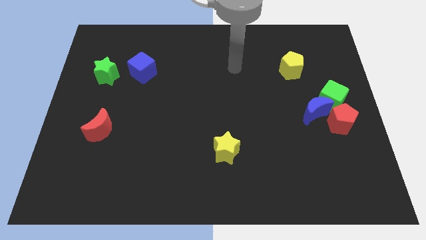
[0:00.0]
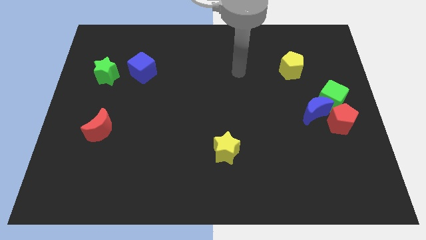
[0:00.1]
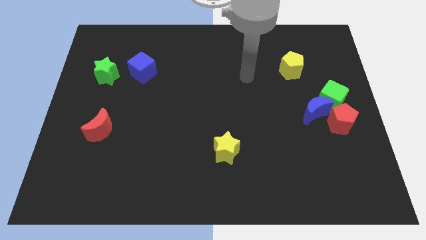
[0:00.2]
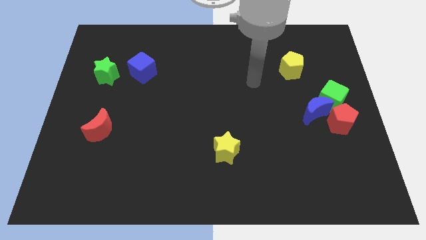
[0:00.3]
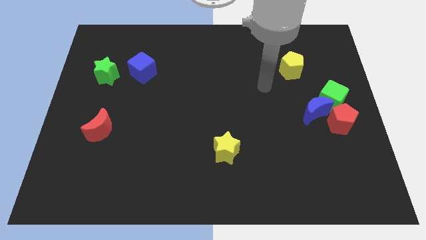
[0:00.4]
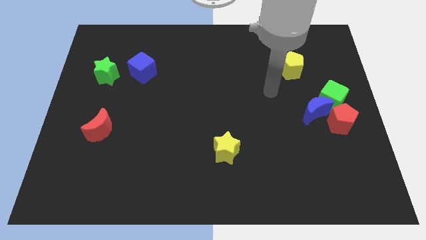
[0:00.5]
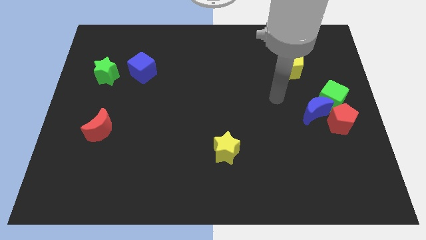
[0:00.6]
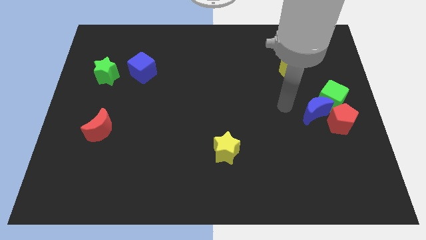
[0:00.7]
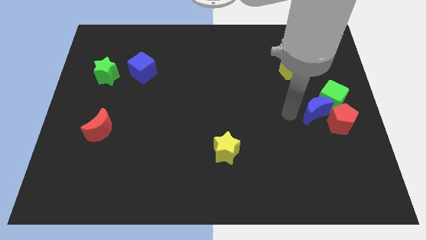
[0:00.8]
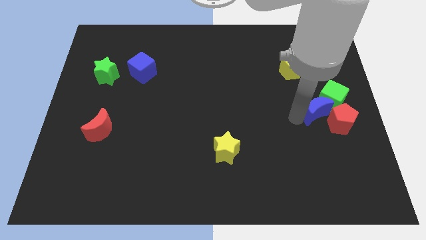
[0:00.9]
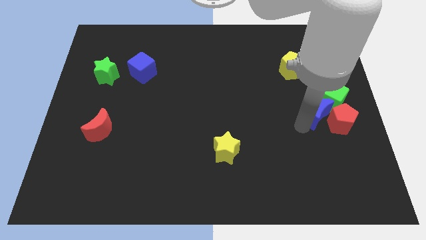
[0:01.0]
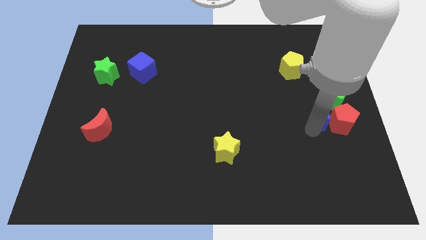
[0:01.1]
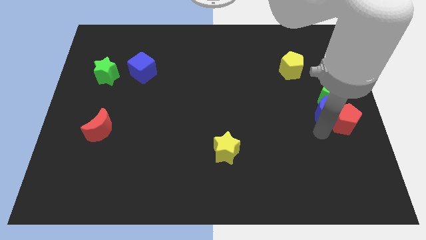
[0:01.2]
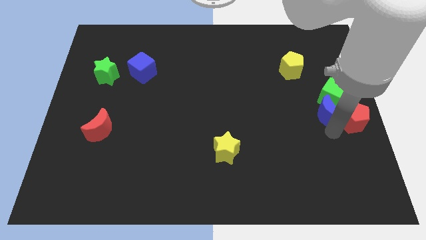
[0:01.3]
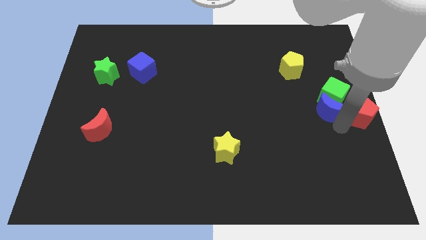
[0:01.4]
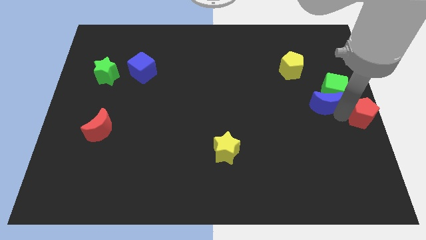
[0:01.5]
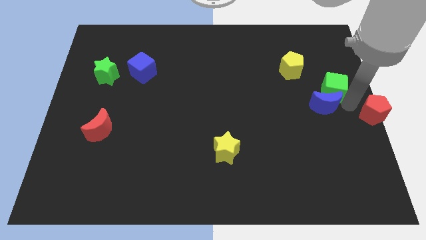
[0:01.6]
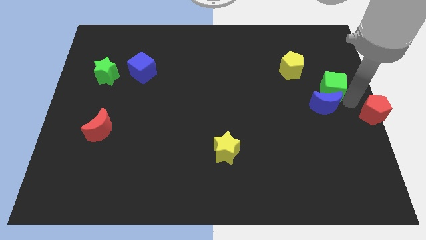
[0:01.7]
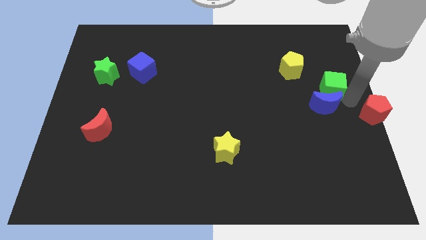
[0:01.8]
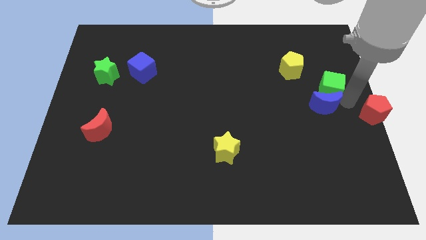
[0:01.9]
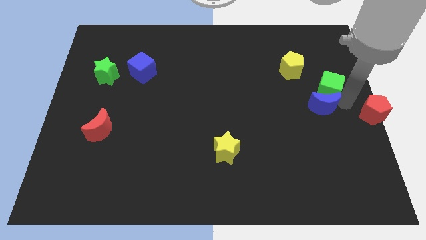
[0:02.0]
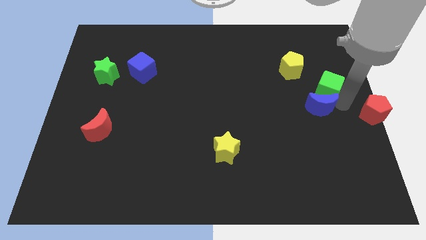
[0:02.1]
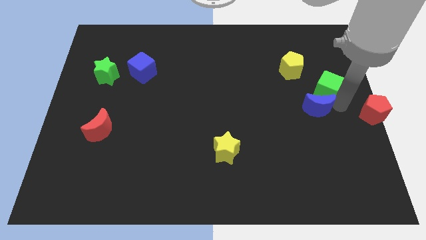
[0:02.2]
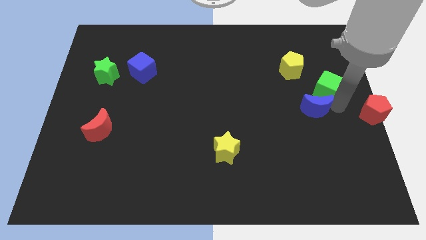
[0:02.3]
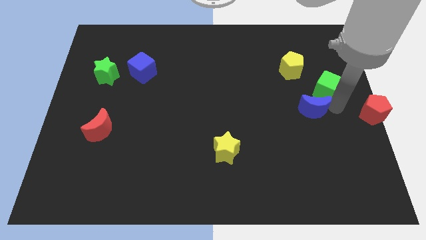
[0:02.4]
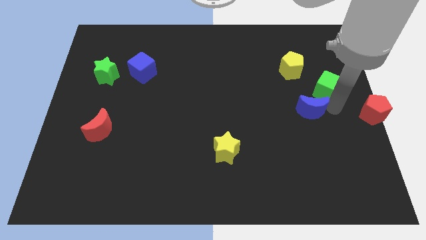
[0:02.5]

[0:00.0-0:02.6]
pull the blue moon apart from the green cube and red pentagon

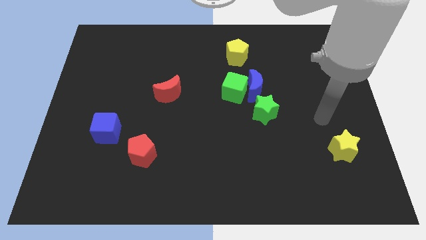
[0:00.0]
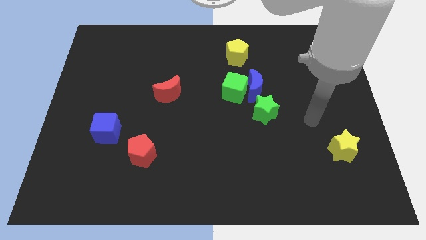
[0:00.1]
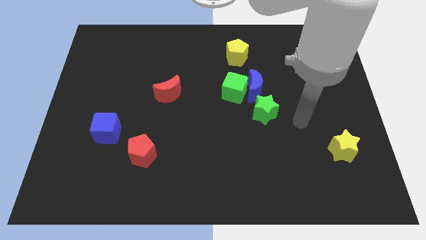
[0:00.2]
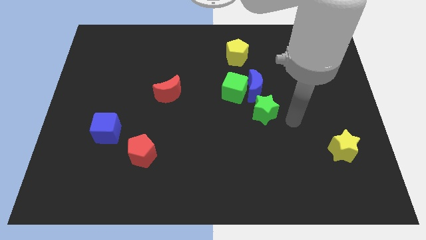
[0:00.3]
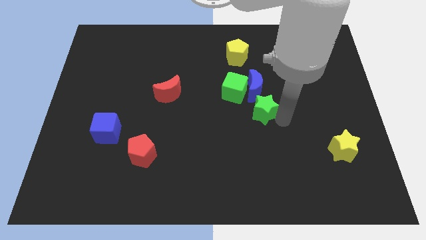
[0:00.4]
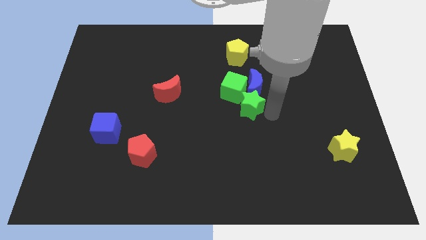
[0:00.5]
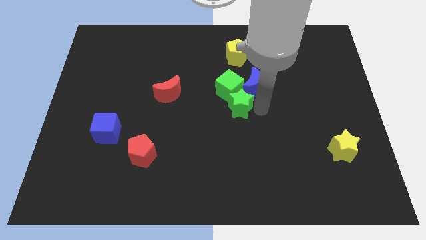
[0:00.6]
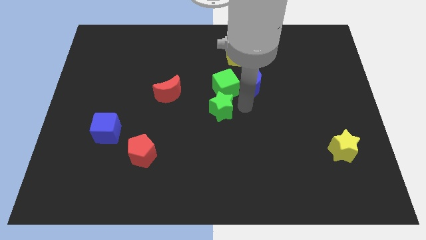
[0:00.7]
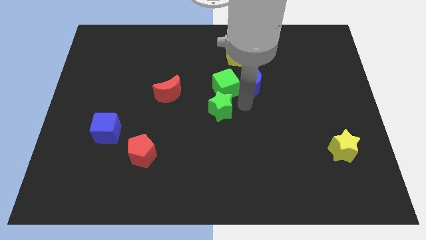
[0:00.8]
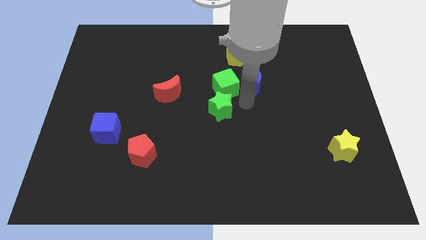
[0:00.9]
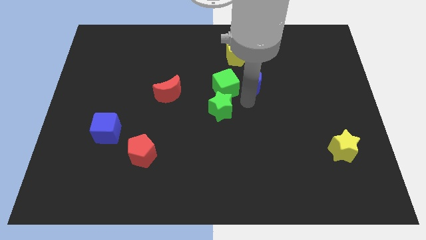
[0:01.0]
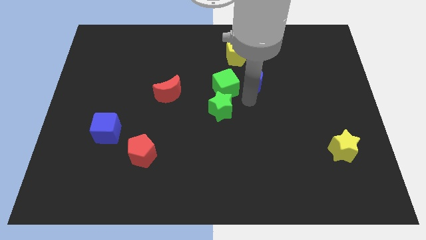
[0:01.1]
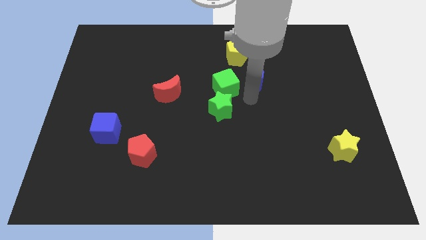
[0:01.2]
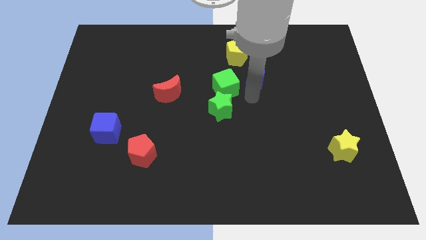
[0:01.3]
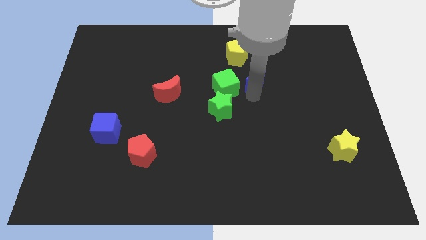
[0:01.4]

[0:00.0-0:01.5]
separate the blue moon from the green cube and green star

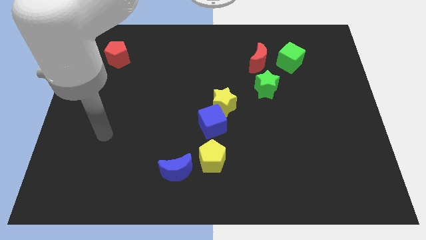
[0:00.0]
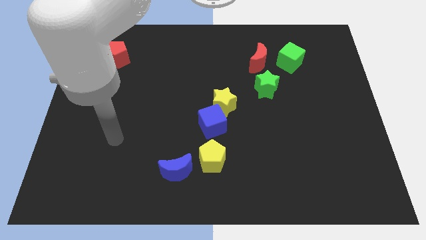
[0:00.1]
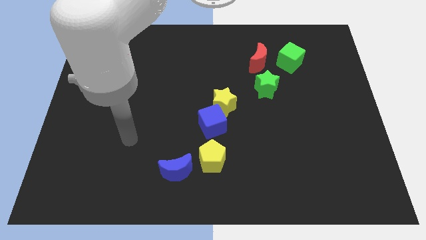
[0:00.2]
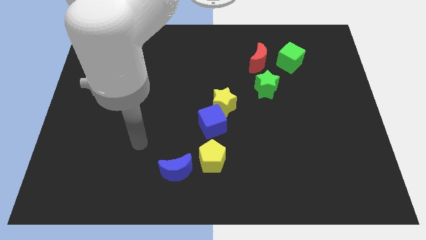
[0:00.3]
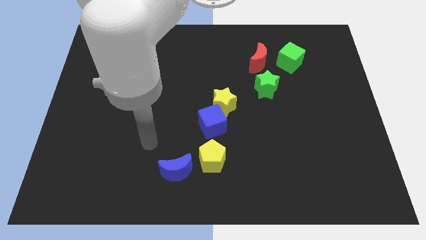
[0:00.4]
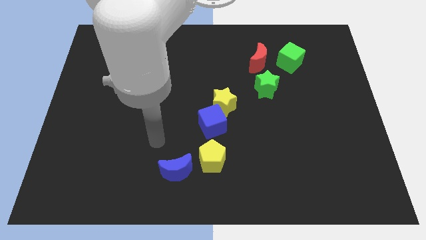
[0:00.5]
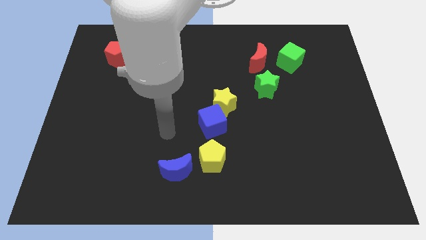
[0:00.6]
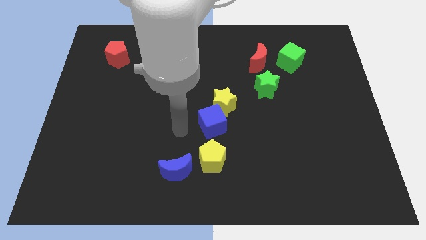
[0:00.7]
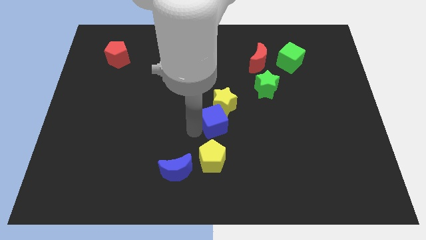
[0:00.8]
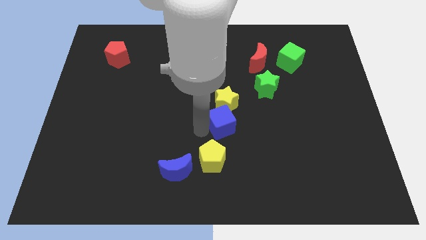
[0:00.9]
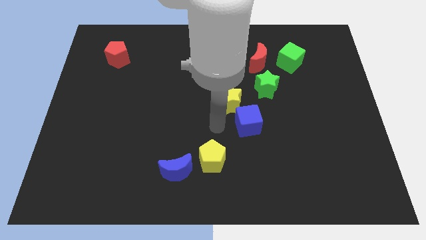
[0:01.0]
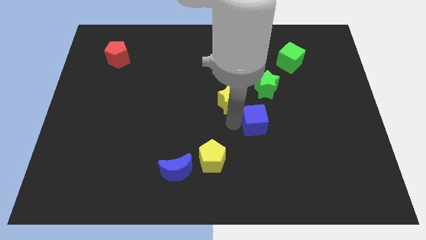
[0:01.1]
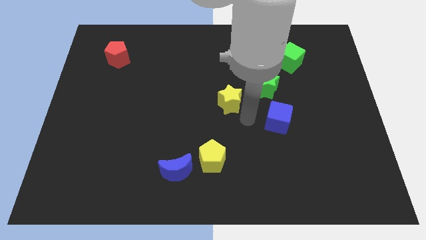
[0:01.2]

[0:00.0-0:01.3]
move the yellow star away from the blue cube

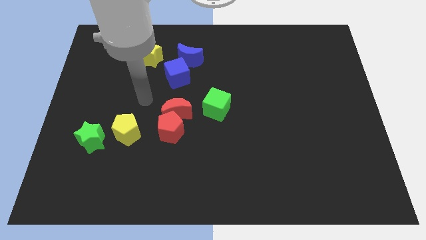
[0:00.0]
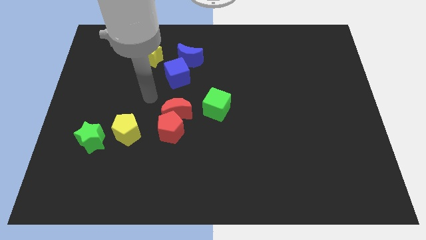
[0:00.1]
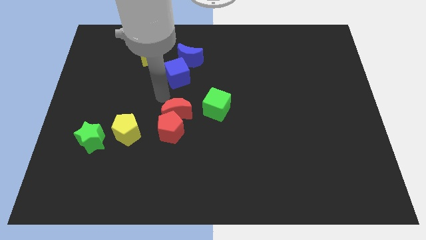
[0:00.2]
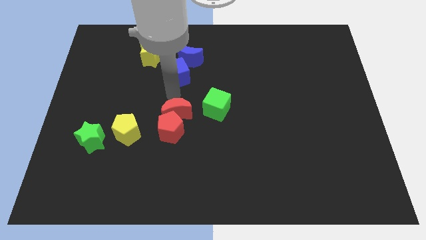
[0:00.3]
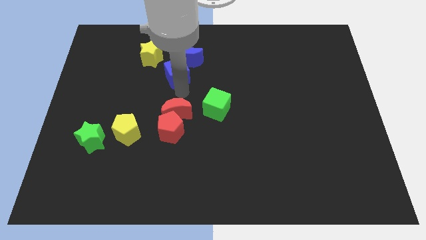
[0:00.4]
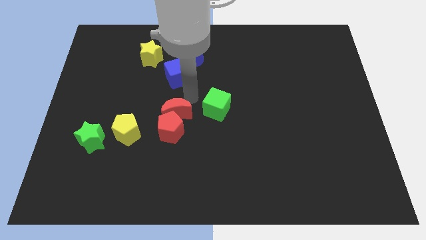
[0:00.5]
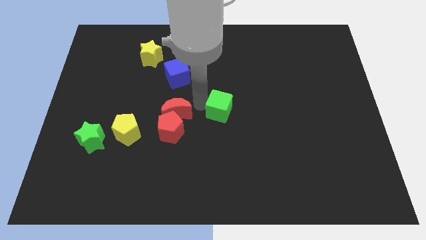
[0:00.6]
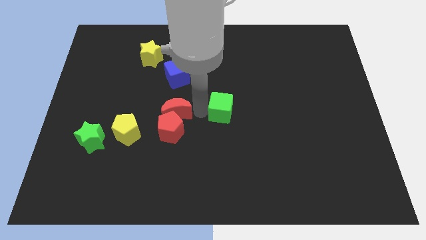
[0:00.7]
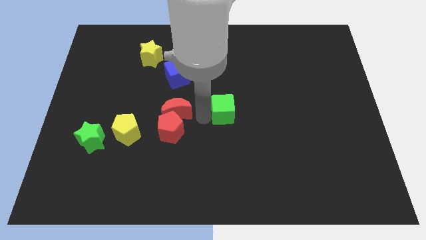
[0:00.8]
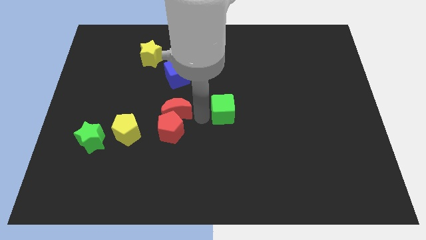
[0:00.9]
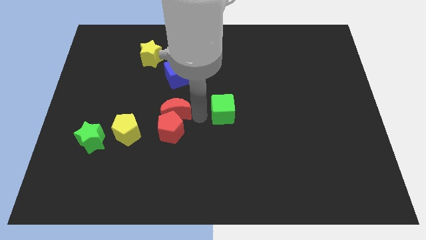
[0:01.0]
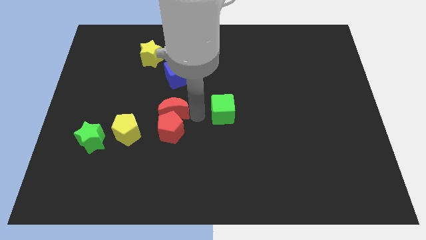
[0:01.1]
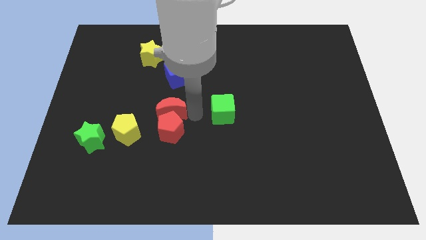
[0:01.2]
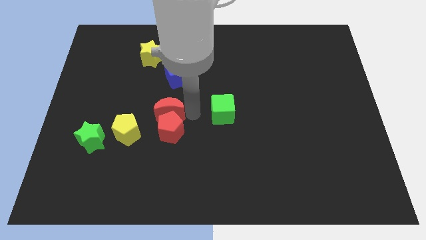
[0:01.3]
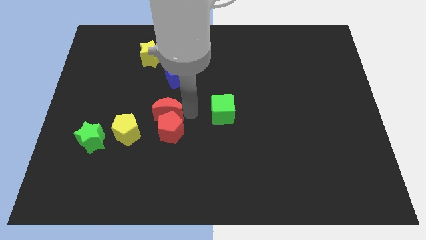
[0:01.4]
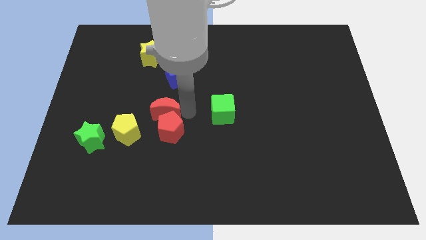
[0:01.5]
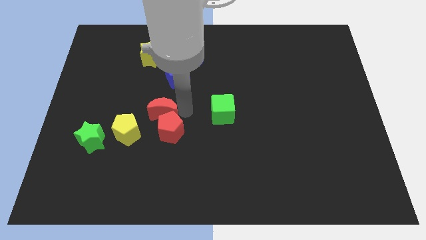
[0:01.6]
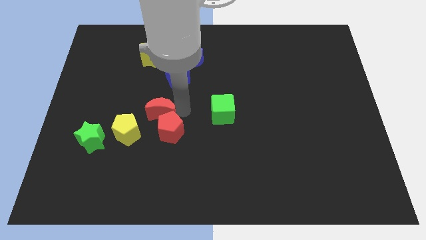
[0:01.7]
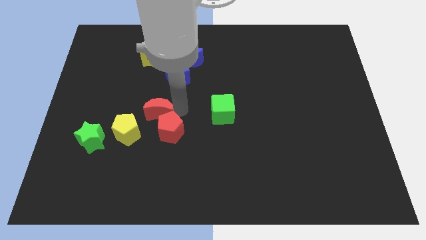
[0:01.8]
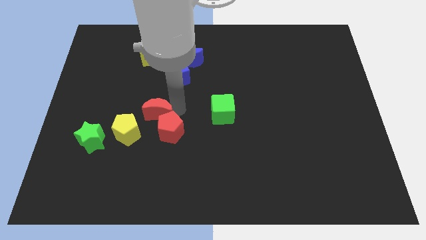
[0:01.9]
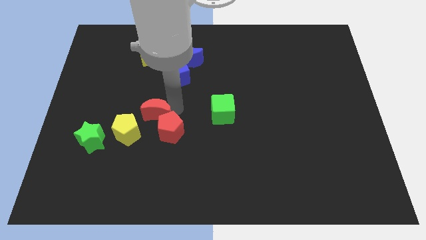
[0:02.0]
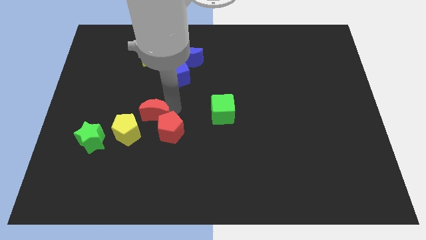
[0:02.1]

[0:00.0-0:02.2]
move the red moon away from the red pentagon and green cube

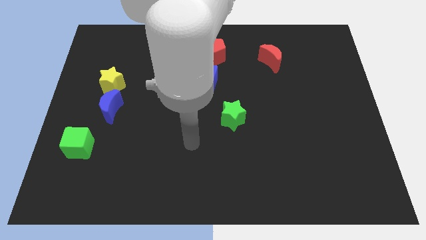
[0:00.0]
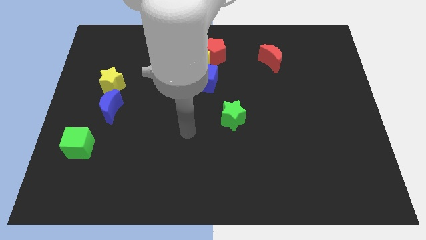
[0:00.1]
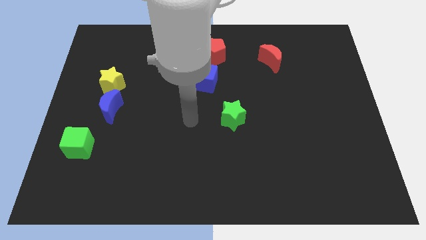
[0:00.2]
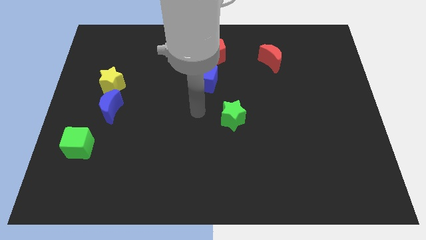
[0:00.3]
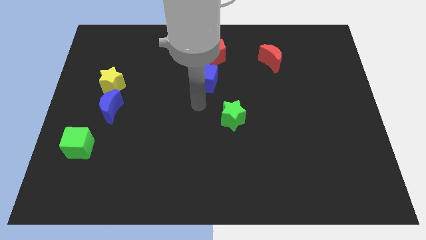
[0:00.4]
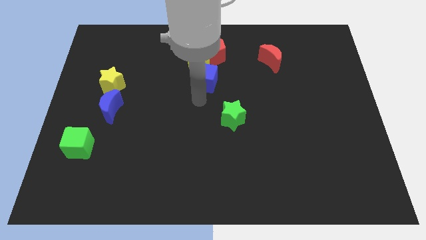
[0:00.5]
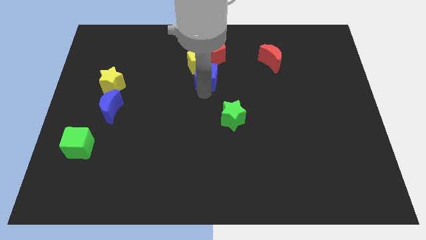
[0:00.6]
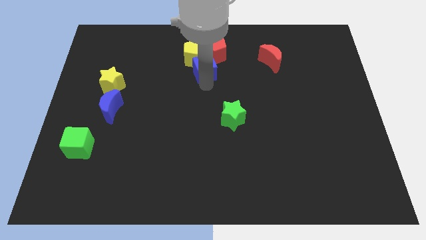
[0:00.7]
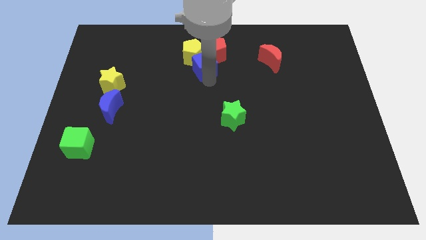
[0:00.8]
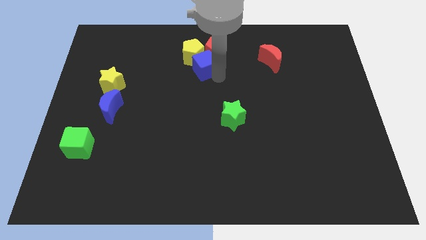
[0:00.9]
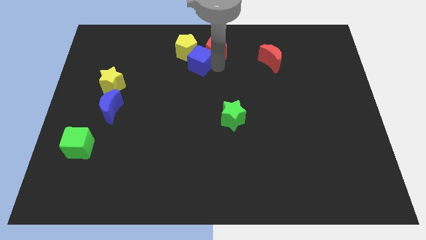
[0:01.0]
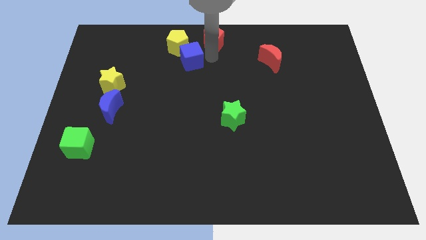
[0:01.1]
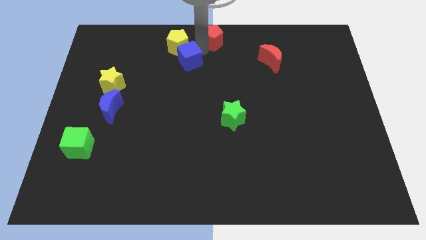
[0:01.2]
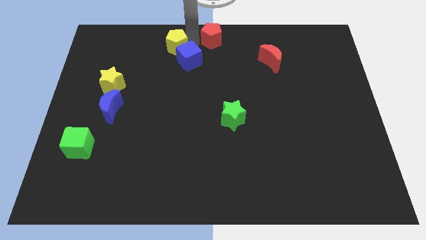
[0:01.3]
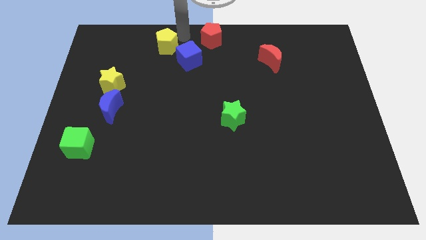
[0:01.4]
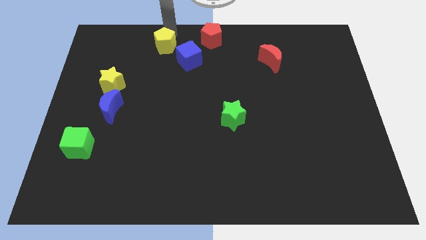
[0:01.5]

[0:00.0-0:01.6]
pull the yellow pentagon apart from the red pentagon and blue cube
